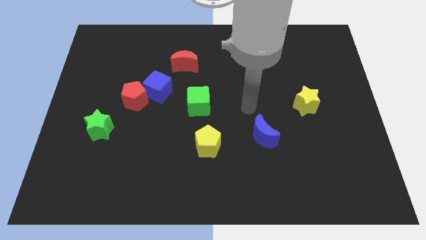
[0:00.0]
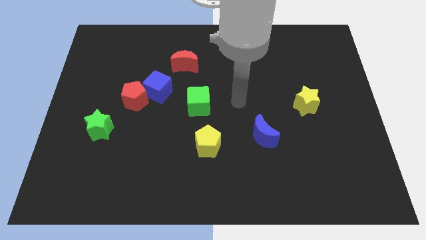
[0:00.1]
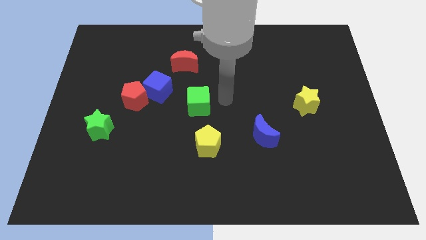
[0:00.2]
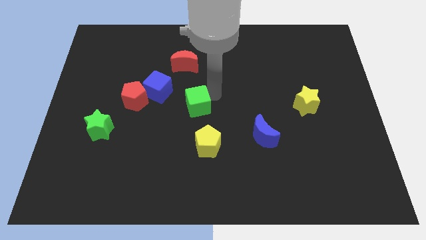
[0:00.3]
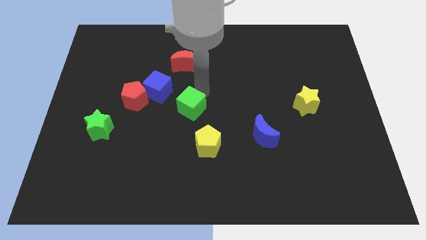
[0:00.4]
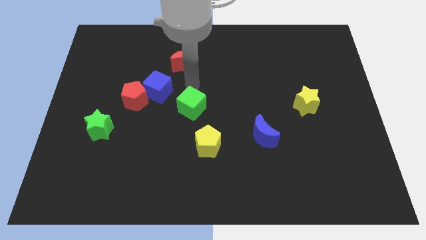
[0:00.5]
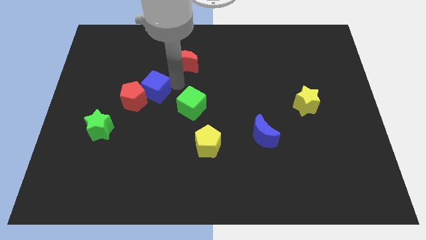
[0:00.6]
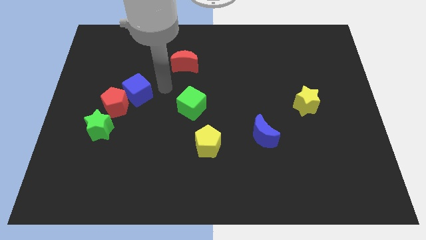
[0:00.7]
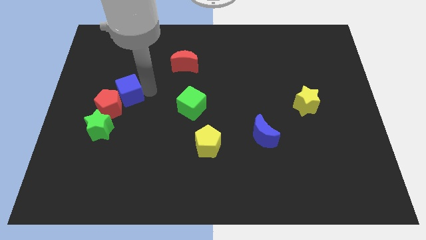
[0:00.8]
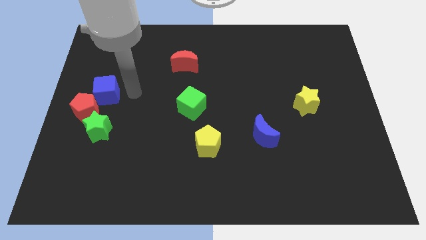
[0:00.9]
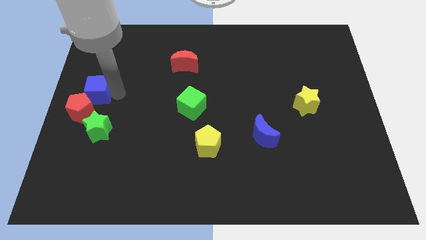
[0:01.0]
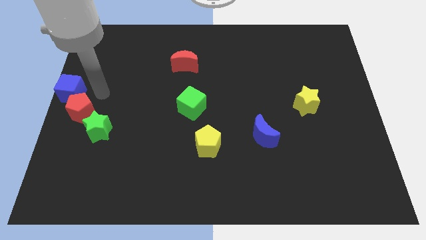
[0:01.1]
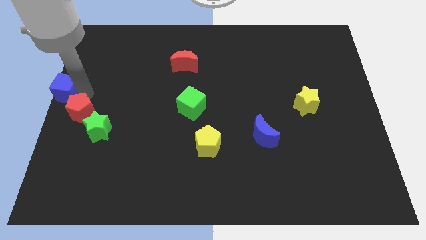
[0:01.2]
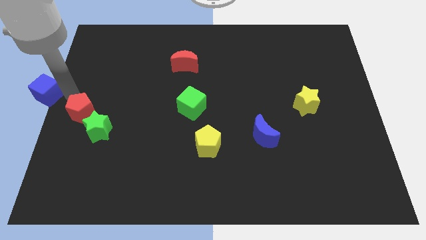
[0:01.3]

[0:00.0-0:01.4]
pull the red pentagon apart from the blue cube

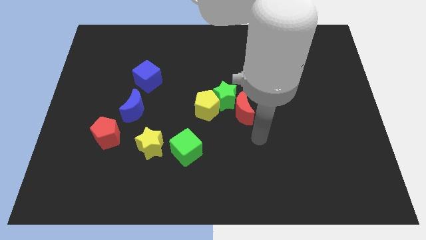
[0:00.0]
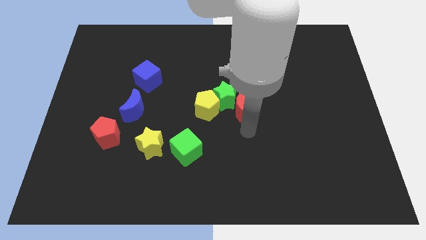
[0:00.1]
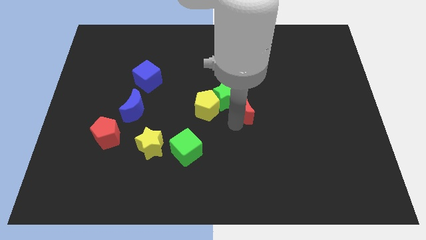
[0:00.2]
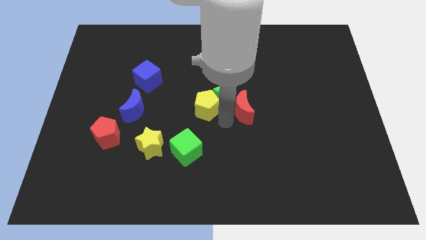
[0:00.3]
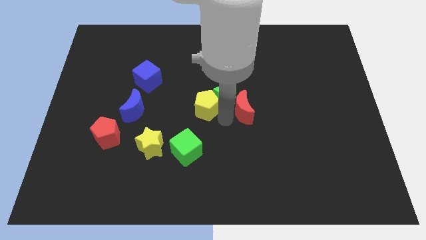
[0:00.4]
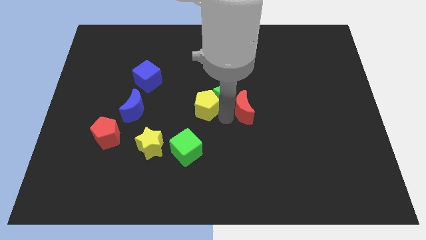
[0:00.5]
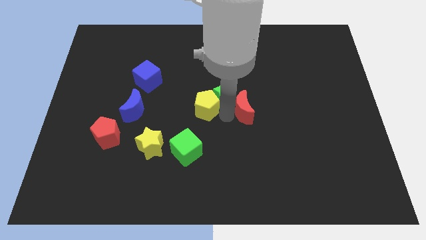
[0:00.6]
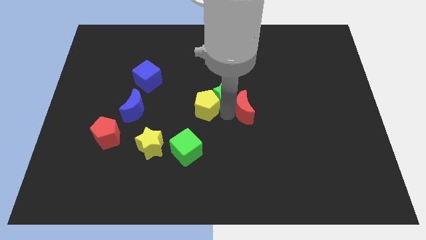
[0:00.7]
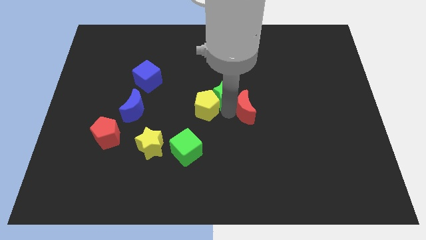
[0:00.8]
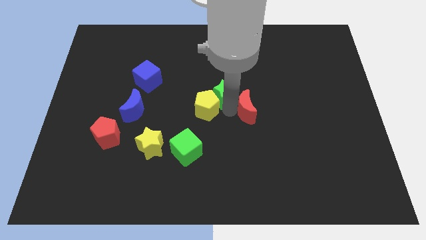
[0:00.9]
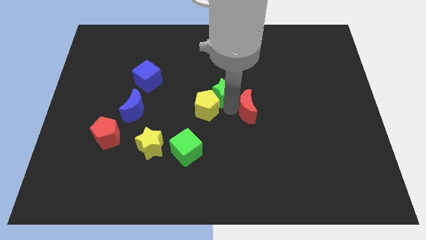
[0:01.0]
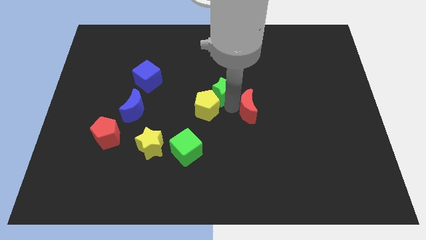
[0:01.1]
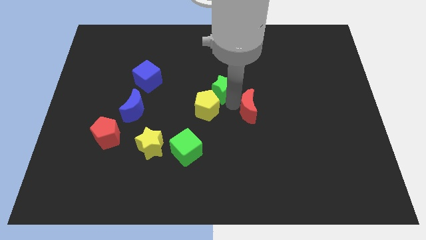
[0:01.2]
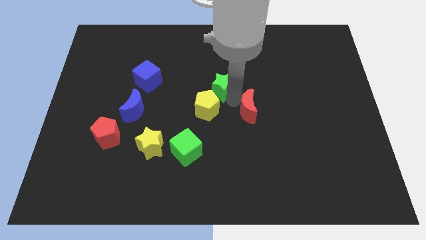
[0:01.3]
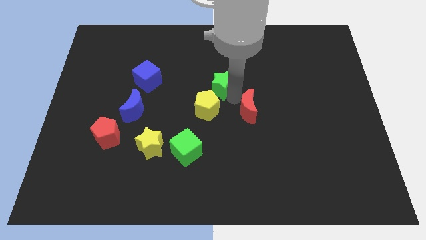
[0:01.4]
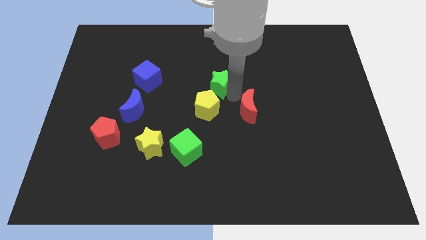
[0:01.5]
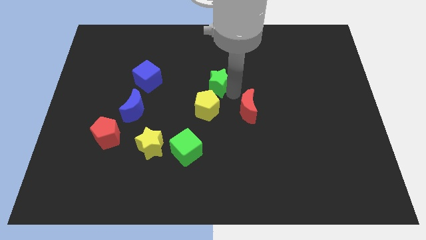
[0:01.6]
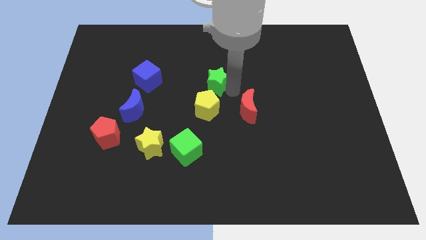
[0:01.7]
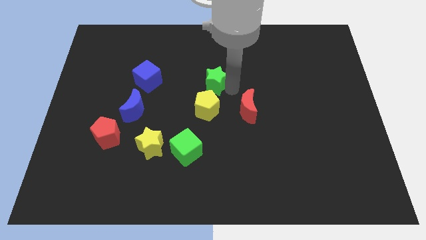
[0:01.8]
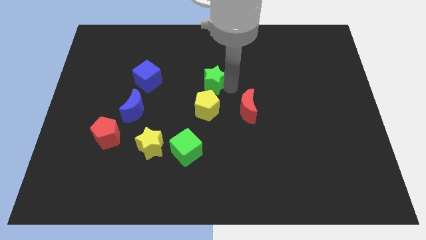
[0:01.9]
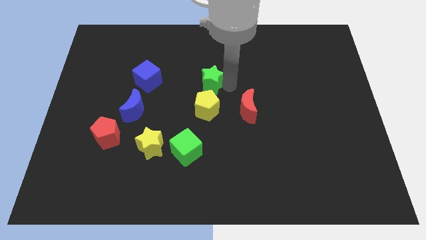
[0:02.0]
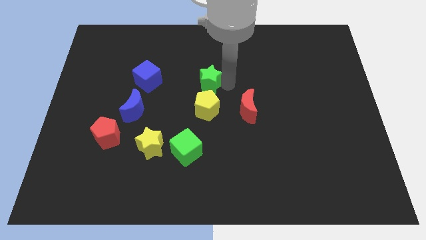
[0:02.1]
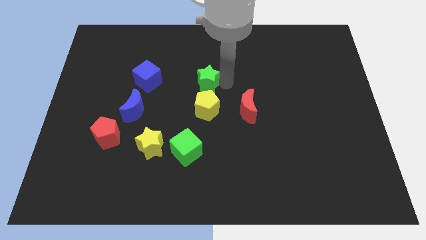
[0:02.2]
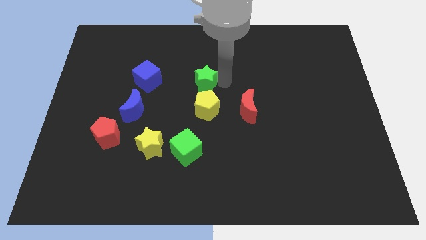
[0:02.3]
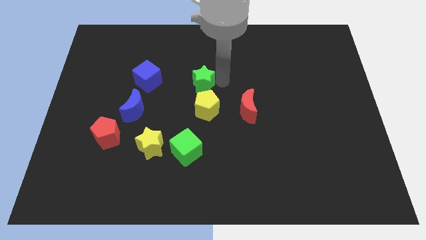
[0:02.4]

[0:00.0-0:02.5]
move the green star away from the yellow pentagon and red moon

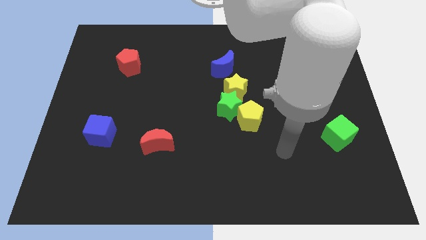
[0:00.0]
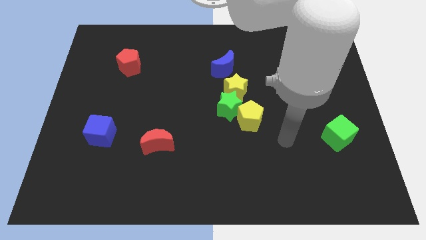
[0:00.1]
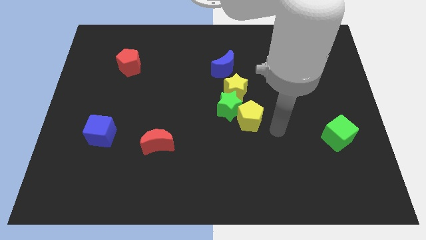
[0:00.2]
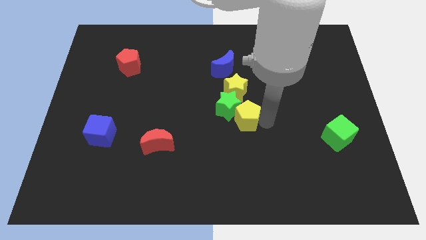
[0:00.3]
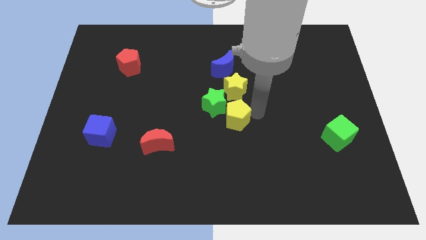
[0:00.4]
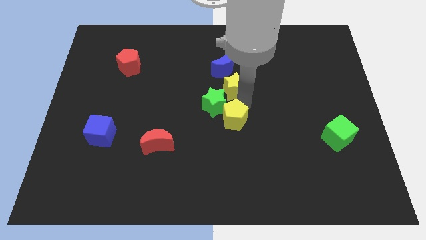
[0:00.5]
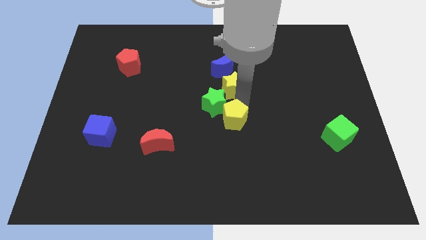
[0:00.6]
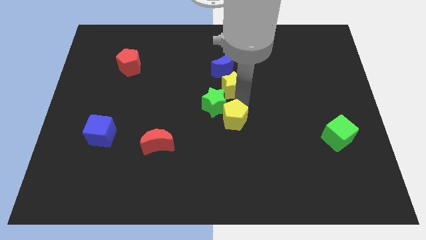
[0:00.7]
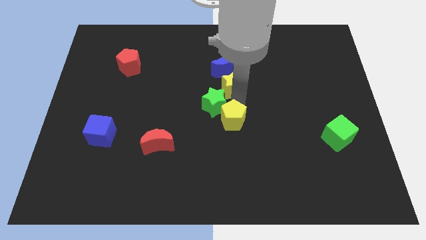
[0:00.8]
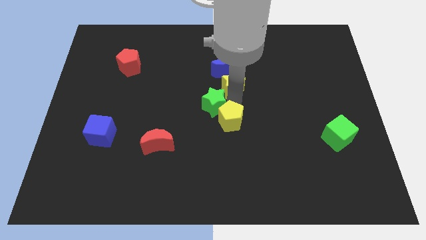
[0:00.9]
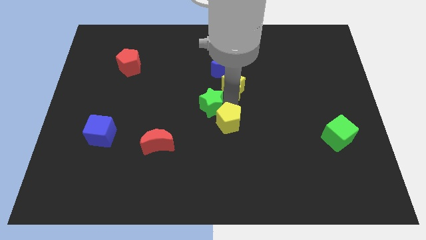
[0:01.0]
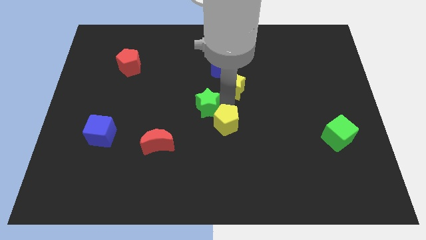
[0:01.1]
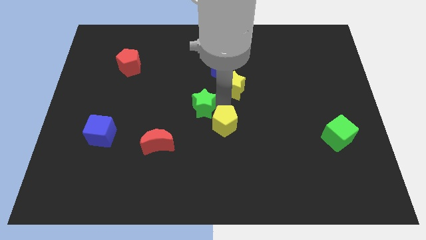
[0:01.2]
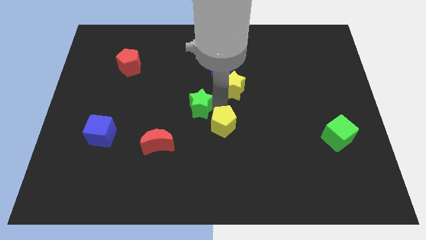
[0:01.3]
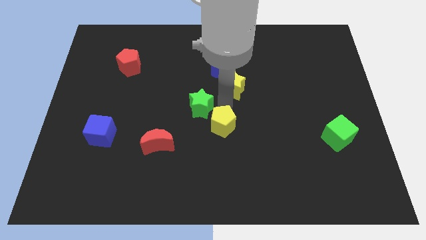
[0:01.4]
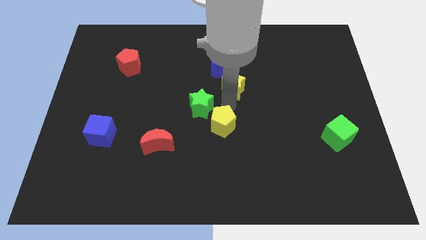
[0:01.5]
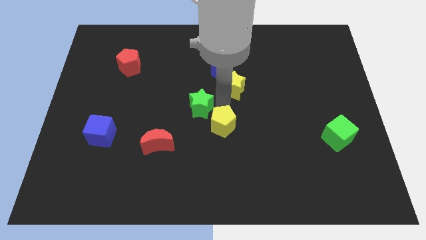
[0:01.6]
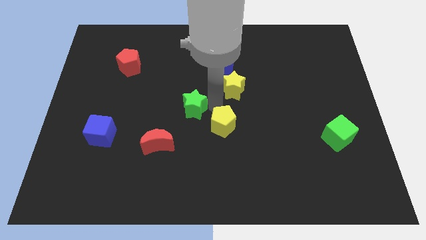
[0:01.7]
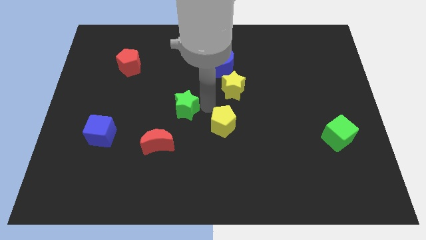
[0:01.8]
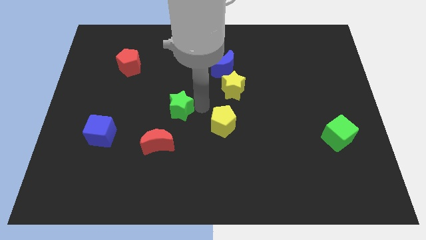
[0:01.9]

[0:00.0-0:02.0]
separate the green star from the yellow star and yellow pentagon

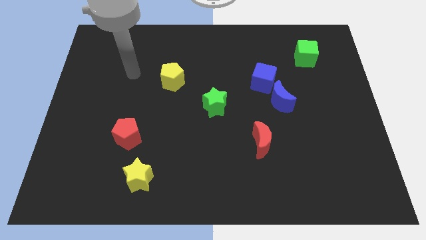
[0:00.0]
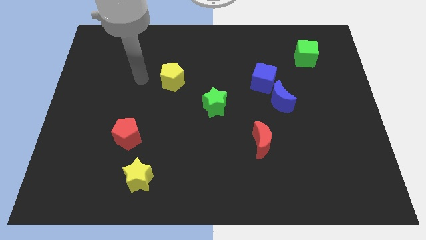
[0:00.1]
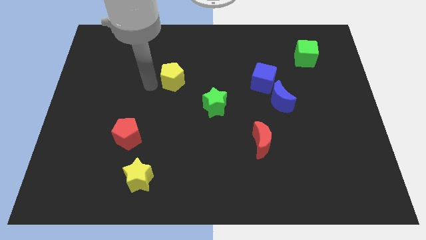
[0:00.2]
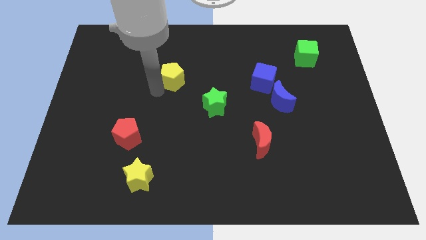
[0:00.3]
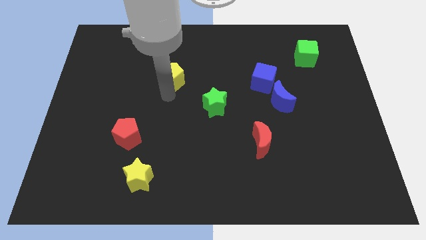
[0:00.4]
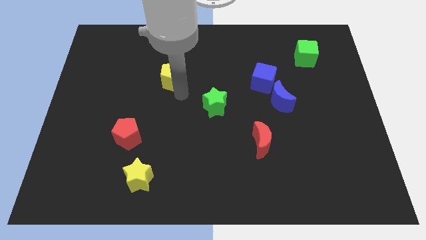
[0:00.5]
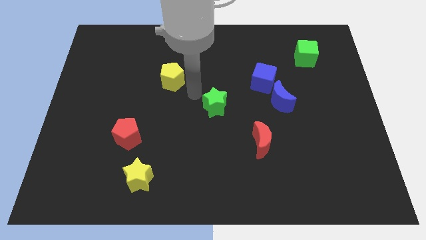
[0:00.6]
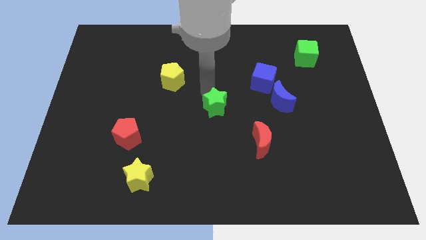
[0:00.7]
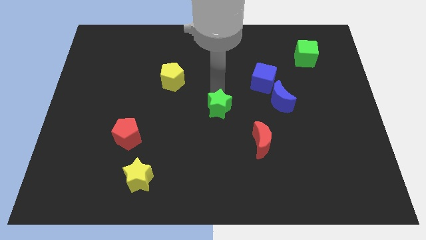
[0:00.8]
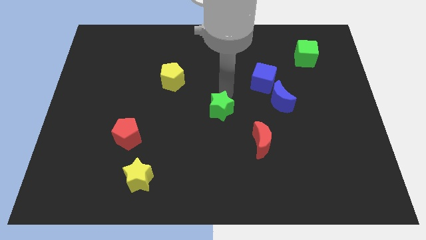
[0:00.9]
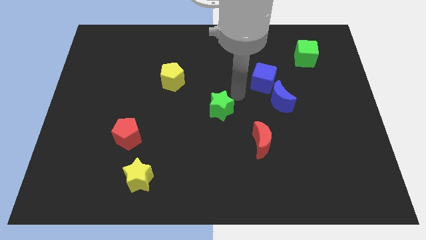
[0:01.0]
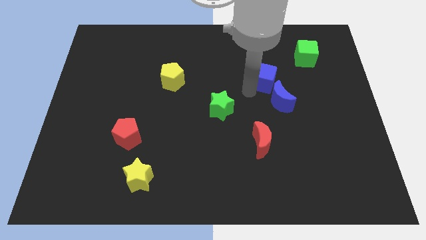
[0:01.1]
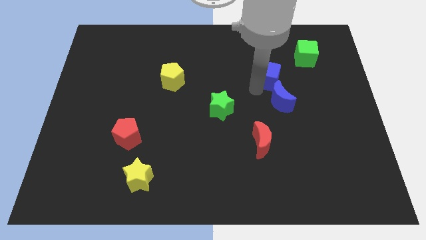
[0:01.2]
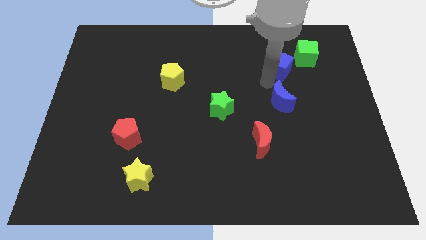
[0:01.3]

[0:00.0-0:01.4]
separate the blue moon from the blue cube

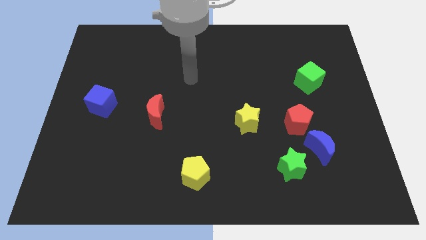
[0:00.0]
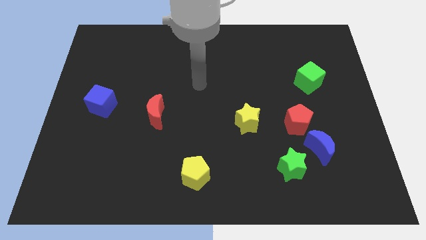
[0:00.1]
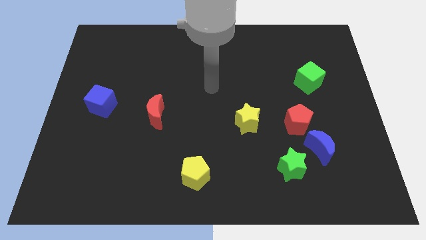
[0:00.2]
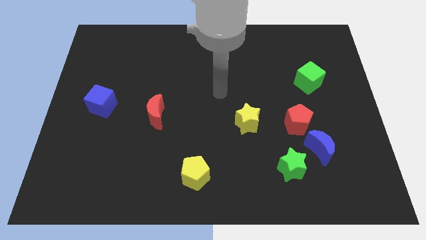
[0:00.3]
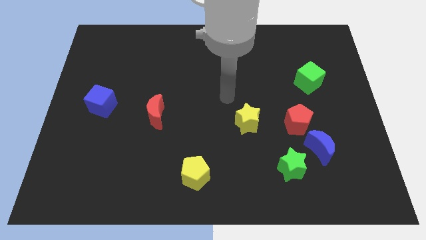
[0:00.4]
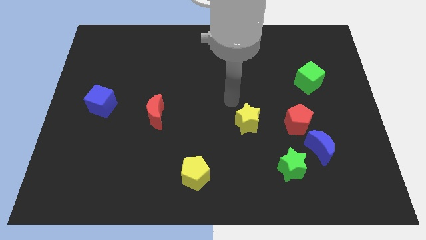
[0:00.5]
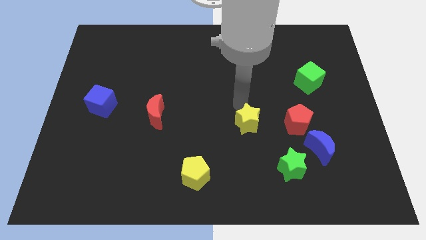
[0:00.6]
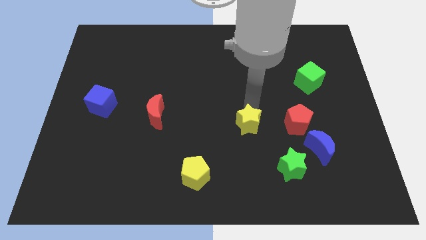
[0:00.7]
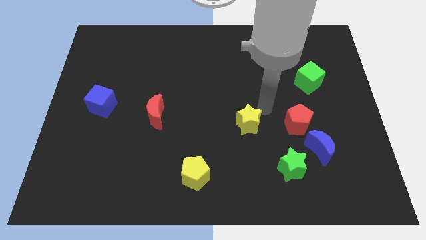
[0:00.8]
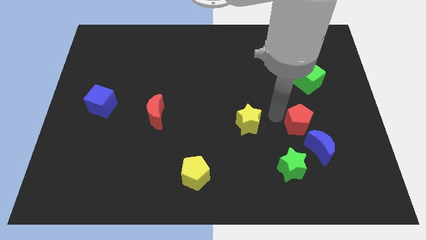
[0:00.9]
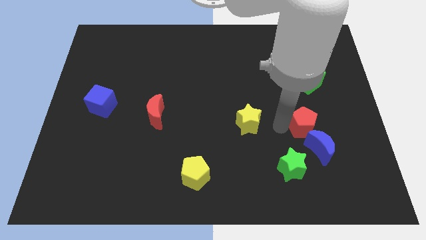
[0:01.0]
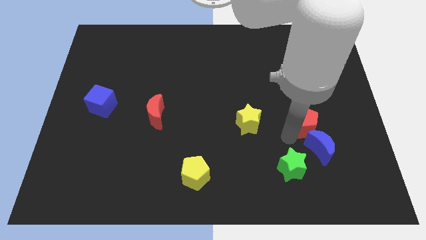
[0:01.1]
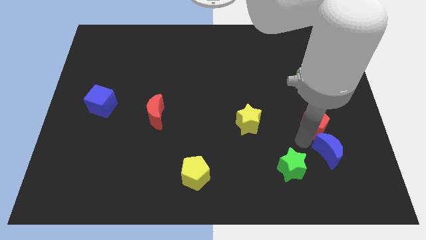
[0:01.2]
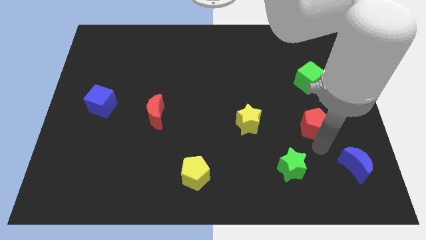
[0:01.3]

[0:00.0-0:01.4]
move the red pentagon away from the blue moon

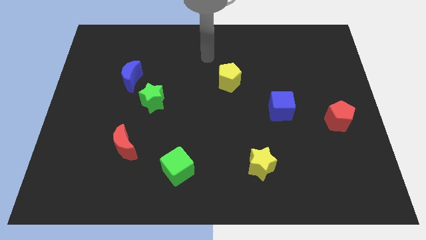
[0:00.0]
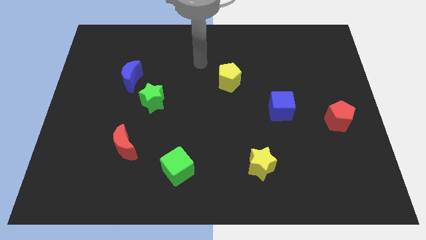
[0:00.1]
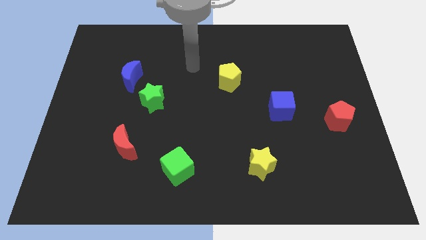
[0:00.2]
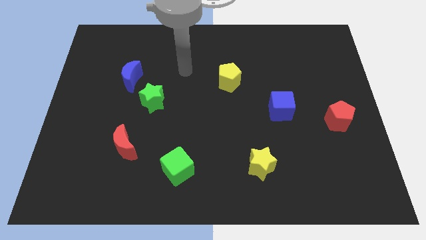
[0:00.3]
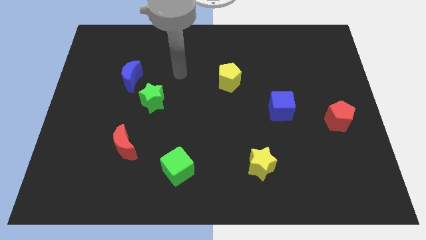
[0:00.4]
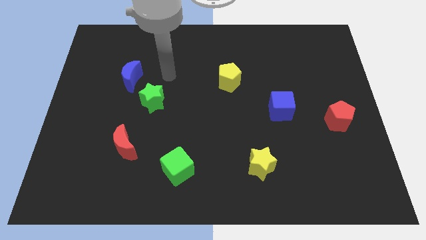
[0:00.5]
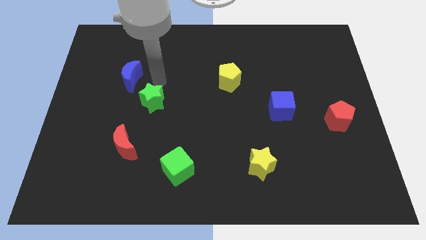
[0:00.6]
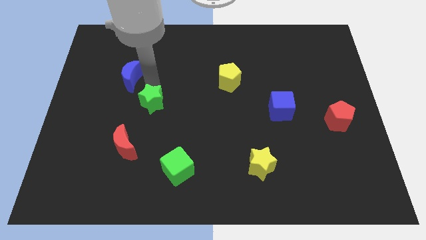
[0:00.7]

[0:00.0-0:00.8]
move the blue moon away from the green star
